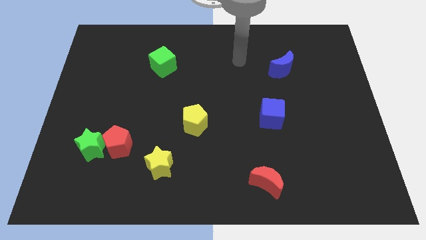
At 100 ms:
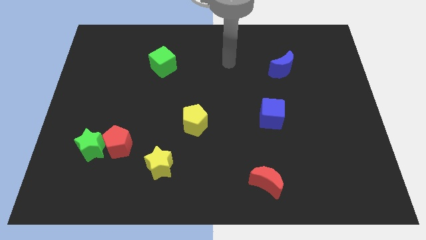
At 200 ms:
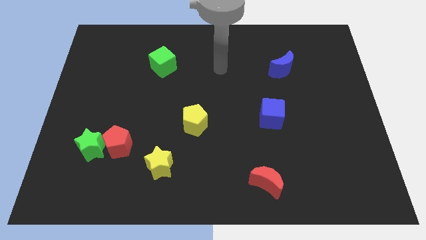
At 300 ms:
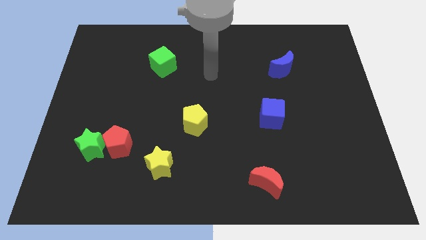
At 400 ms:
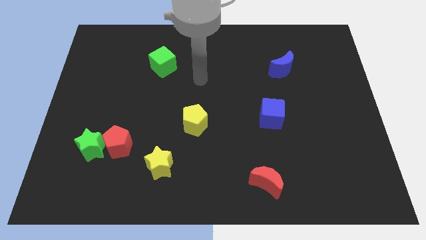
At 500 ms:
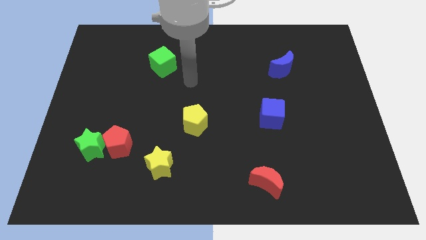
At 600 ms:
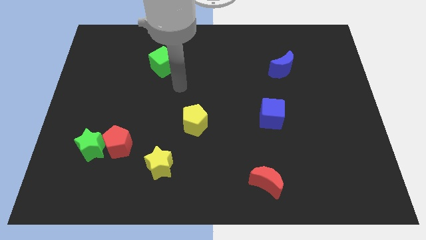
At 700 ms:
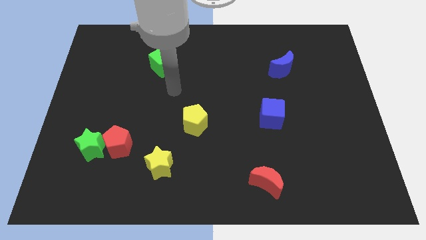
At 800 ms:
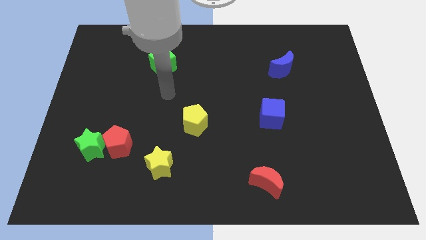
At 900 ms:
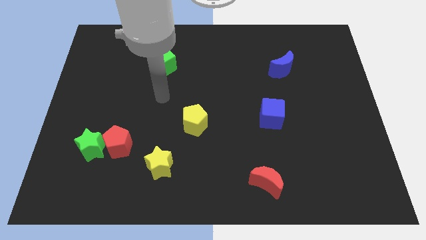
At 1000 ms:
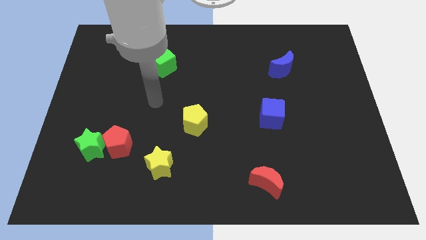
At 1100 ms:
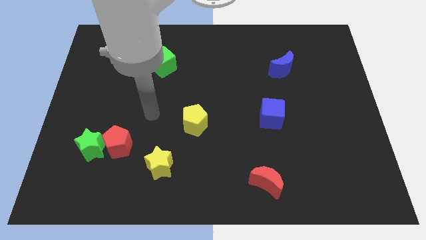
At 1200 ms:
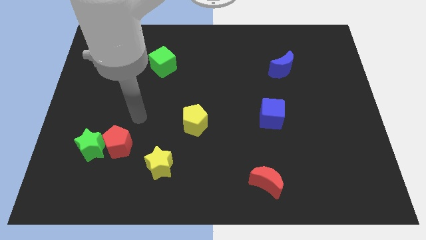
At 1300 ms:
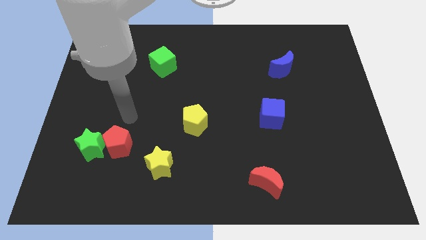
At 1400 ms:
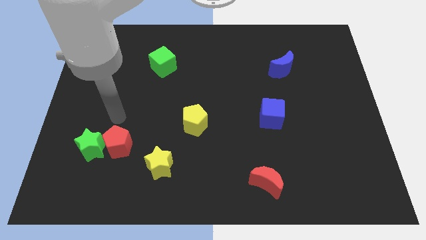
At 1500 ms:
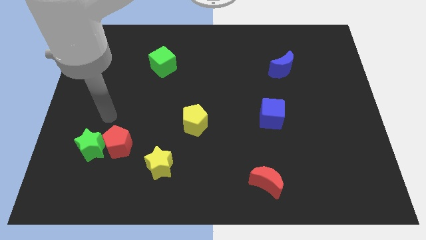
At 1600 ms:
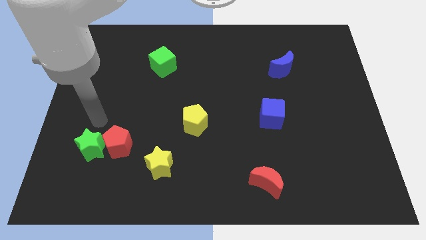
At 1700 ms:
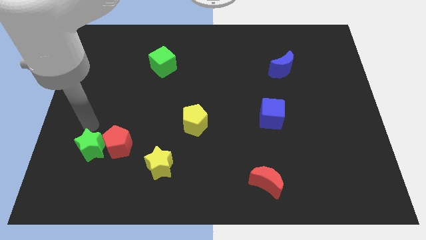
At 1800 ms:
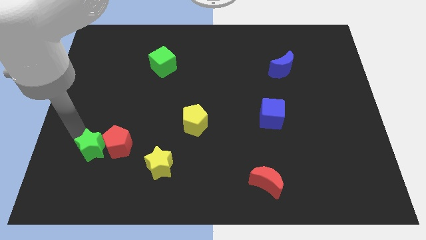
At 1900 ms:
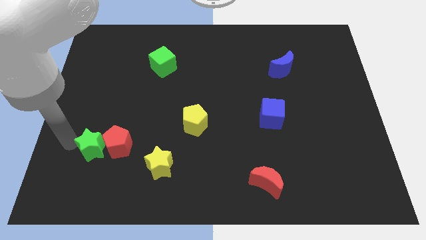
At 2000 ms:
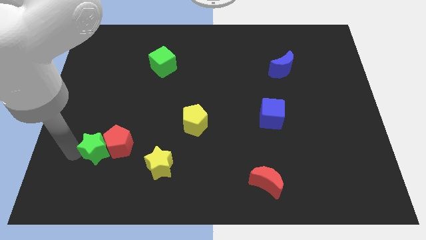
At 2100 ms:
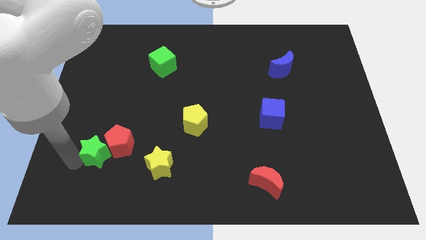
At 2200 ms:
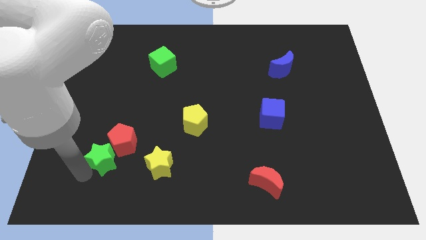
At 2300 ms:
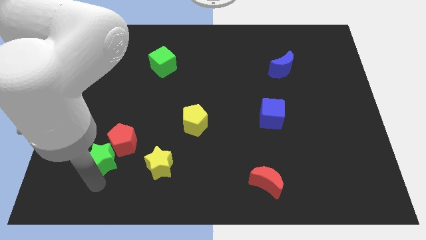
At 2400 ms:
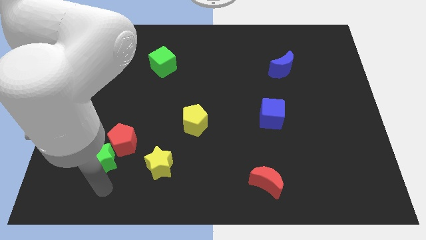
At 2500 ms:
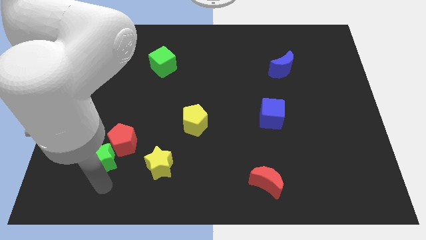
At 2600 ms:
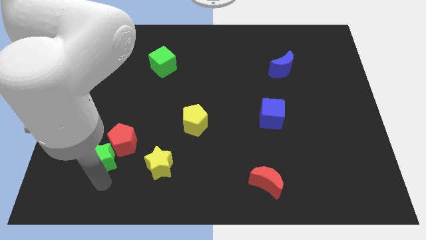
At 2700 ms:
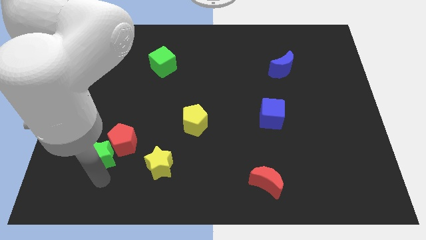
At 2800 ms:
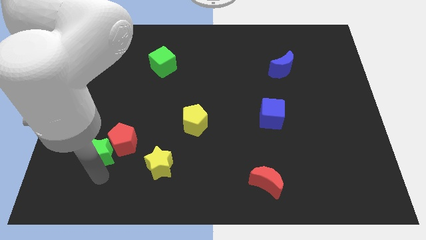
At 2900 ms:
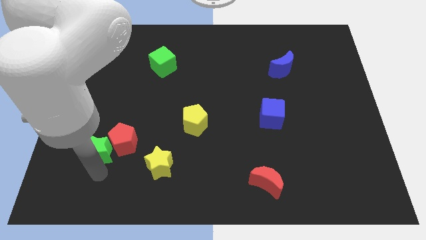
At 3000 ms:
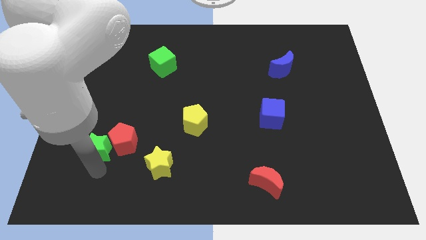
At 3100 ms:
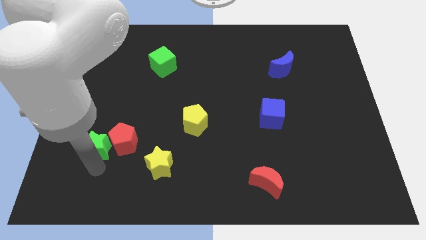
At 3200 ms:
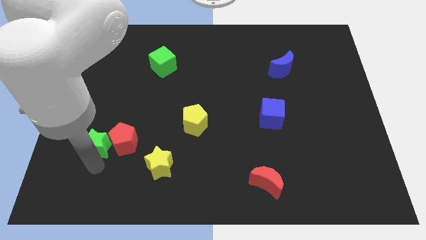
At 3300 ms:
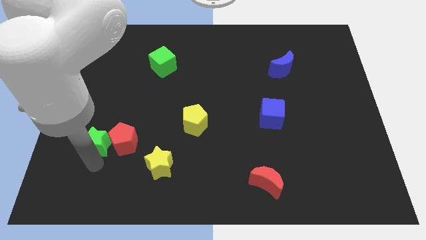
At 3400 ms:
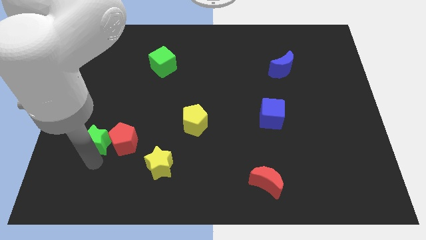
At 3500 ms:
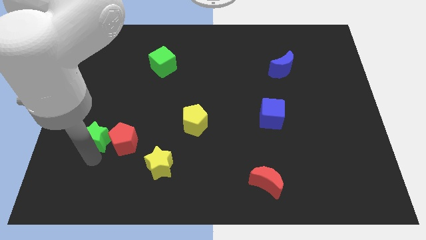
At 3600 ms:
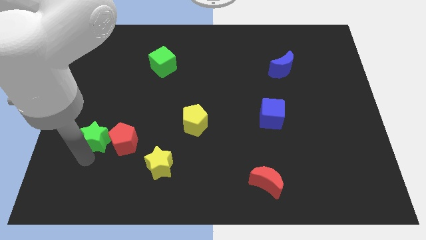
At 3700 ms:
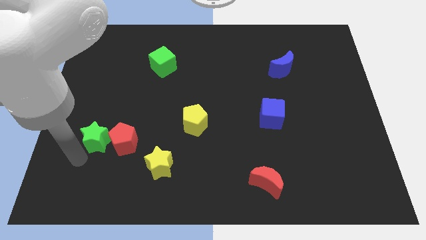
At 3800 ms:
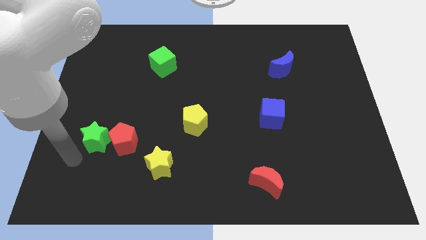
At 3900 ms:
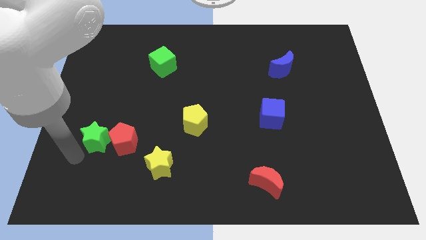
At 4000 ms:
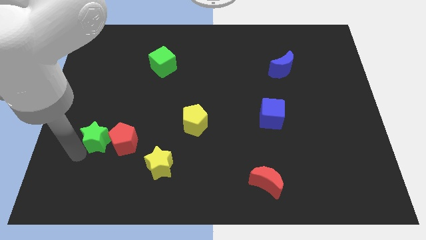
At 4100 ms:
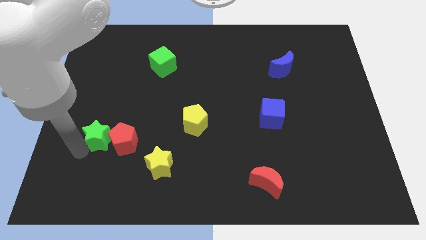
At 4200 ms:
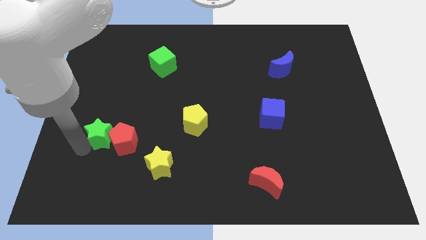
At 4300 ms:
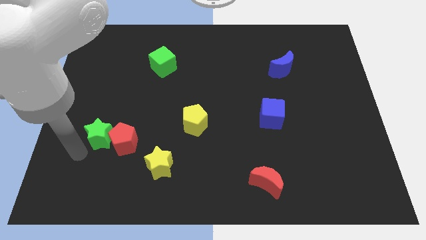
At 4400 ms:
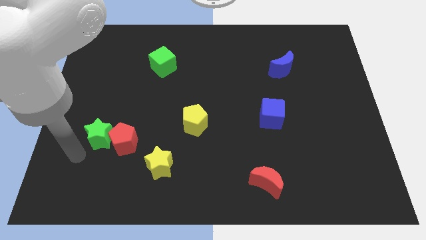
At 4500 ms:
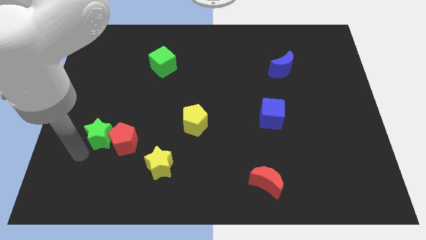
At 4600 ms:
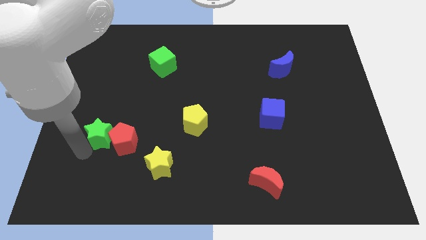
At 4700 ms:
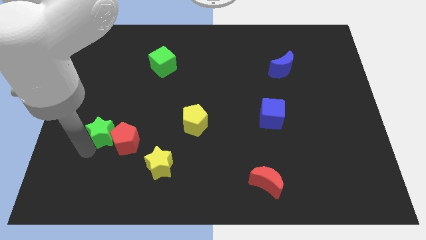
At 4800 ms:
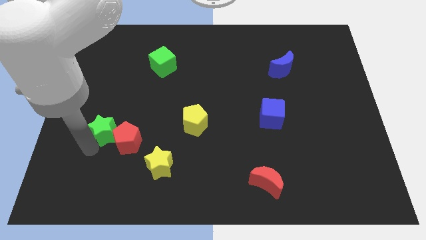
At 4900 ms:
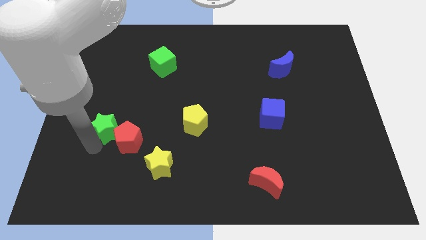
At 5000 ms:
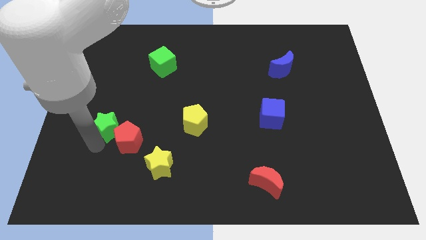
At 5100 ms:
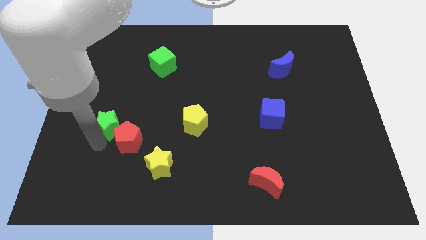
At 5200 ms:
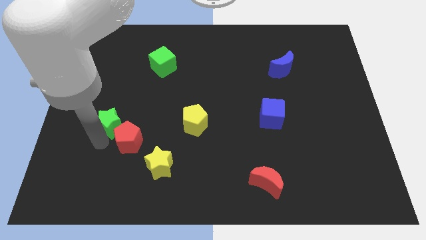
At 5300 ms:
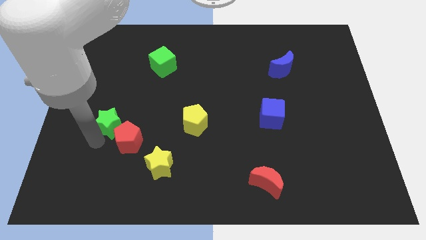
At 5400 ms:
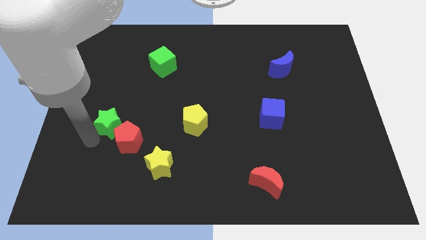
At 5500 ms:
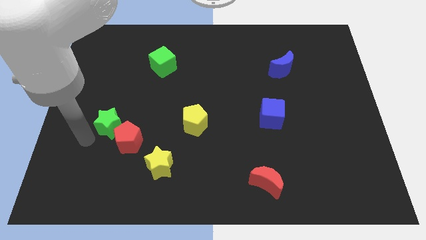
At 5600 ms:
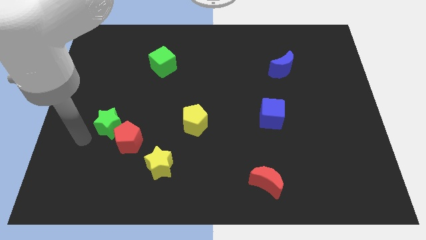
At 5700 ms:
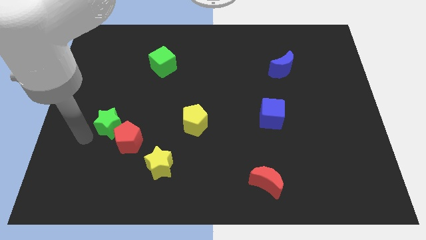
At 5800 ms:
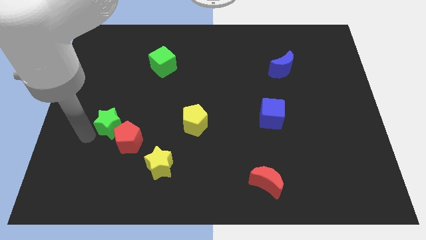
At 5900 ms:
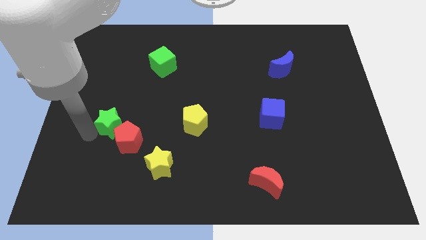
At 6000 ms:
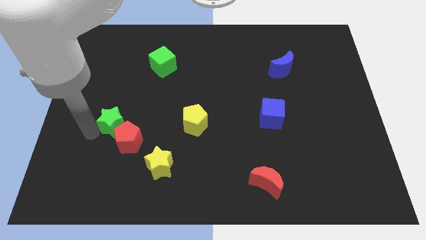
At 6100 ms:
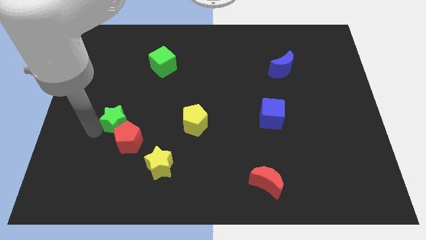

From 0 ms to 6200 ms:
move the green star a bit upwards and to the right

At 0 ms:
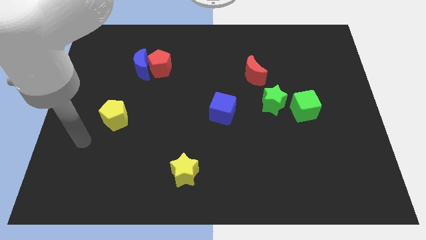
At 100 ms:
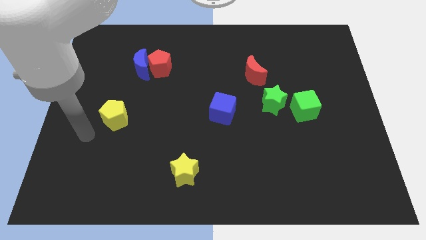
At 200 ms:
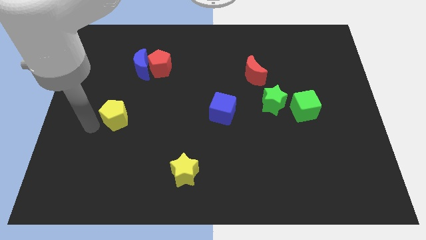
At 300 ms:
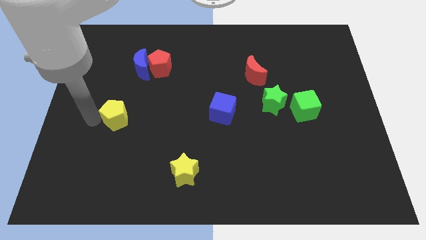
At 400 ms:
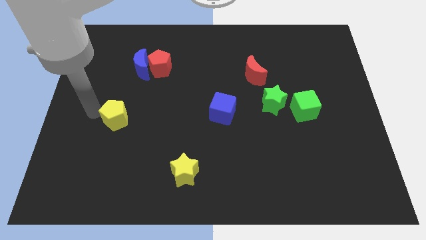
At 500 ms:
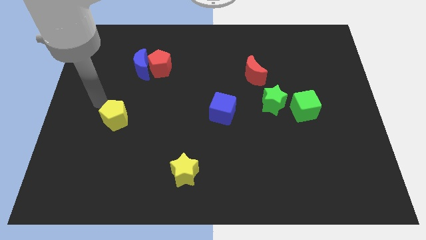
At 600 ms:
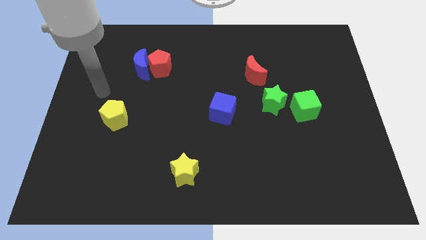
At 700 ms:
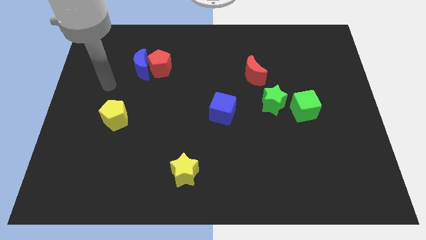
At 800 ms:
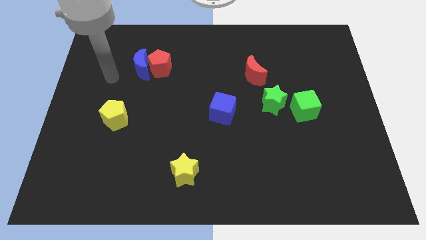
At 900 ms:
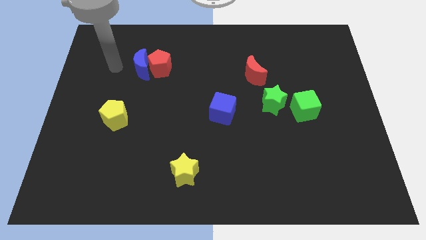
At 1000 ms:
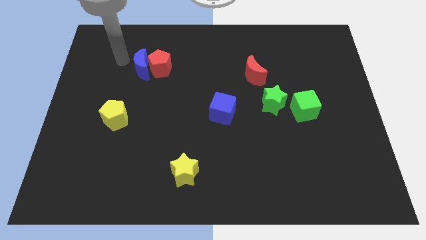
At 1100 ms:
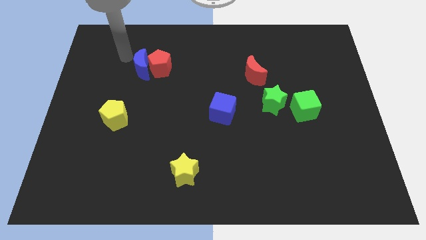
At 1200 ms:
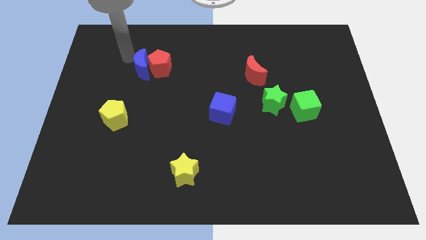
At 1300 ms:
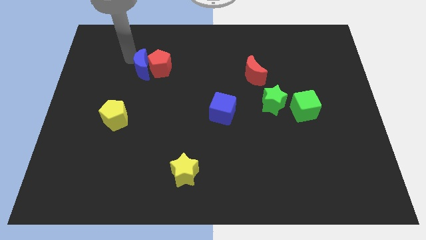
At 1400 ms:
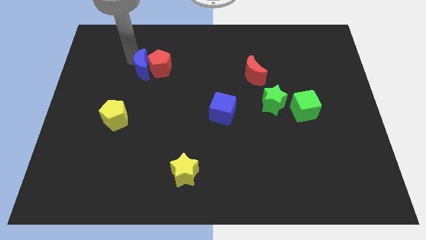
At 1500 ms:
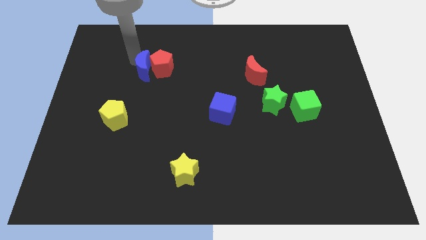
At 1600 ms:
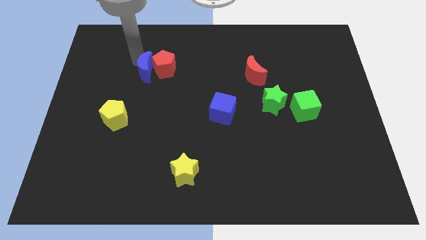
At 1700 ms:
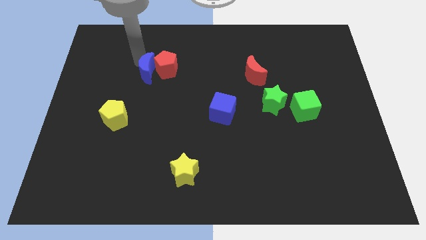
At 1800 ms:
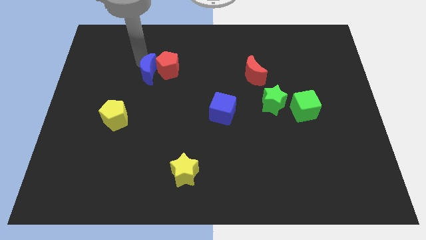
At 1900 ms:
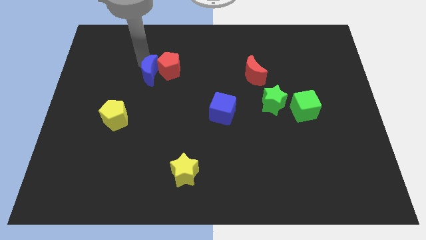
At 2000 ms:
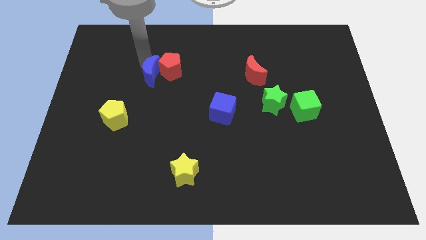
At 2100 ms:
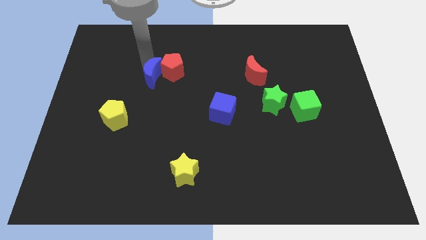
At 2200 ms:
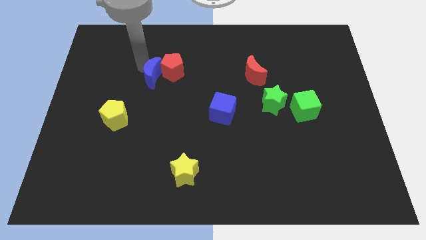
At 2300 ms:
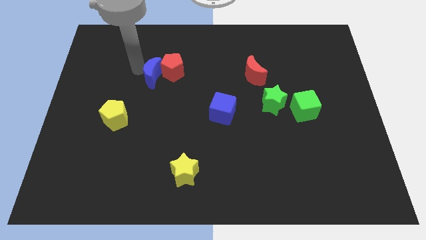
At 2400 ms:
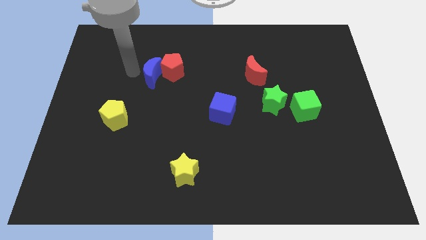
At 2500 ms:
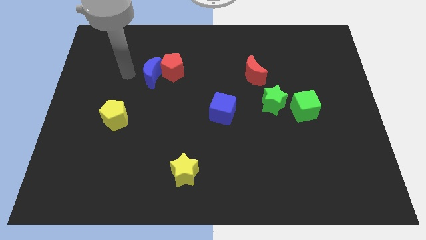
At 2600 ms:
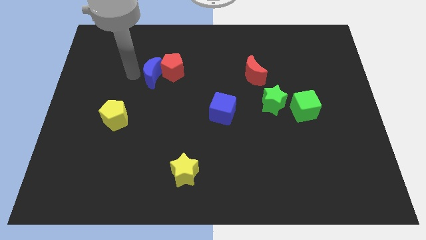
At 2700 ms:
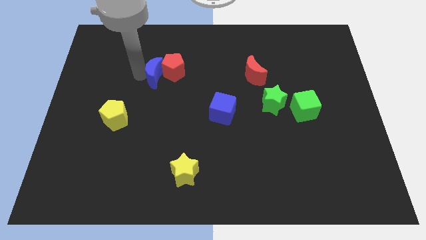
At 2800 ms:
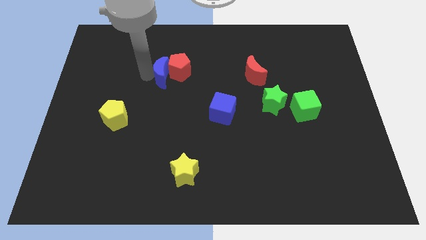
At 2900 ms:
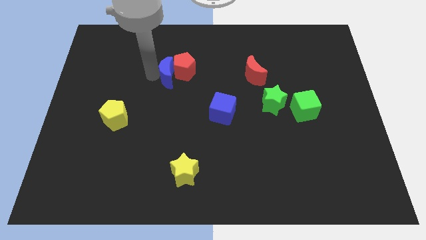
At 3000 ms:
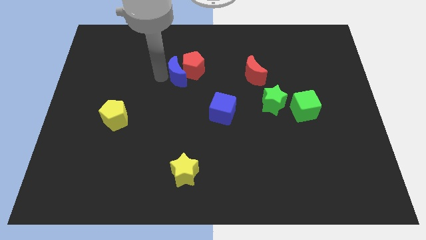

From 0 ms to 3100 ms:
slightly push the blue moon to the right
